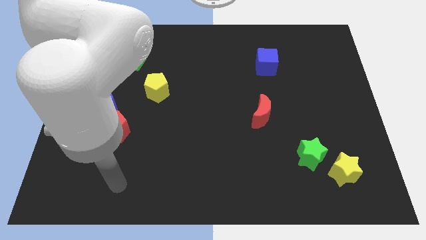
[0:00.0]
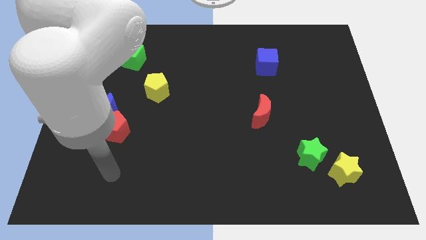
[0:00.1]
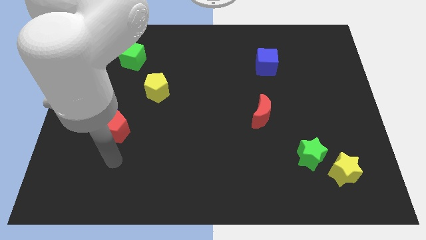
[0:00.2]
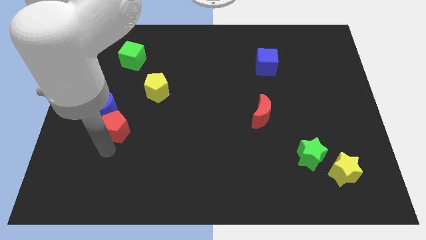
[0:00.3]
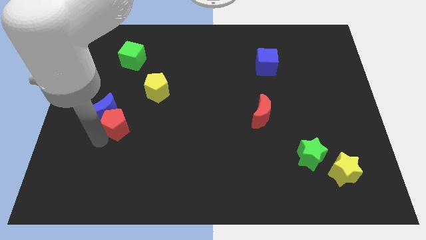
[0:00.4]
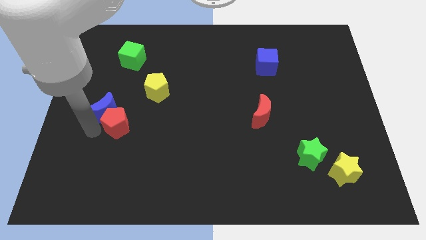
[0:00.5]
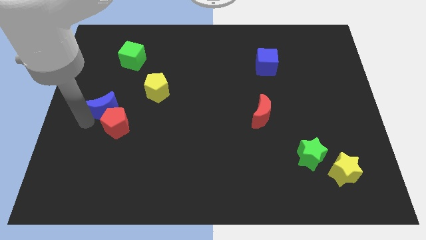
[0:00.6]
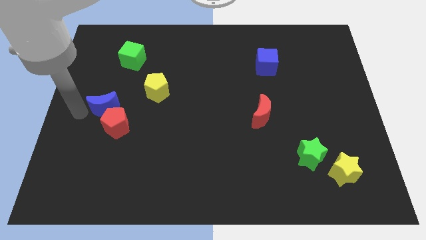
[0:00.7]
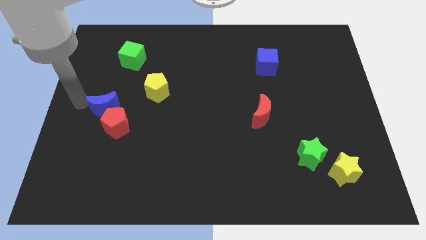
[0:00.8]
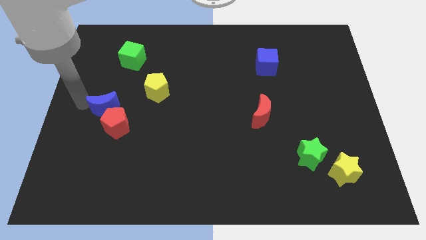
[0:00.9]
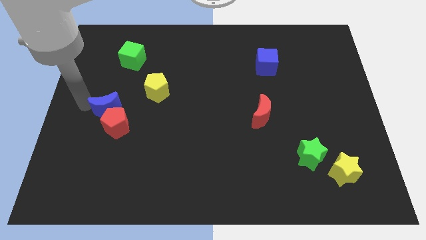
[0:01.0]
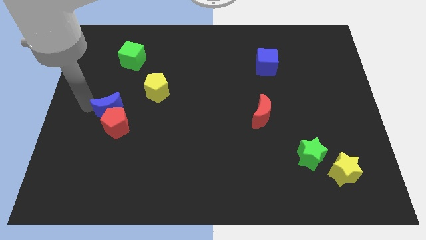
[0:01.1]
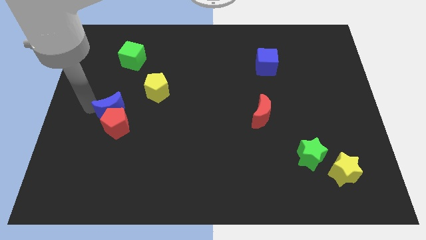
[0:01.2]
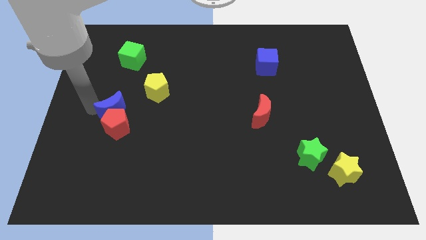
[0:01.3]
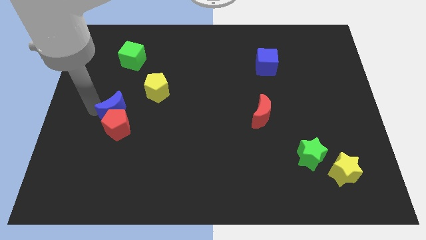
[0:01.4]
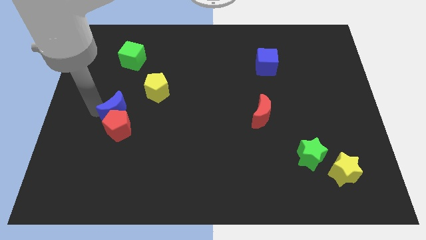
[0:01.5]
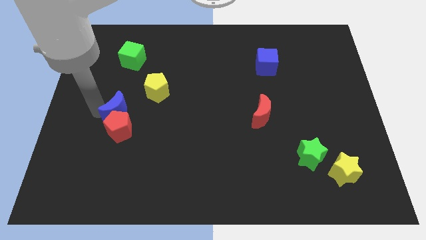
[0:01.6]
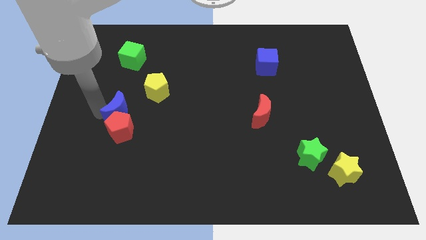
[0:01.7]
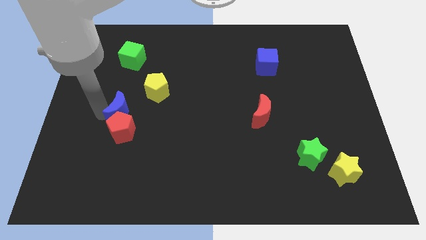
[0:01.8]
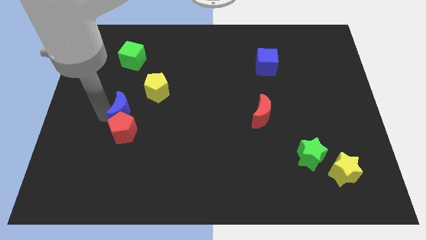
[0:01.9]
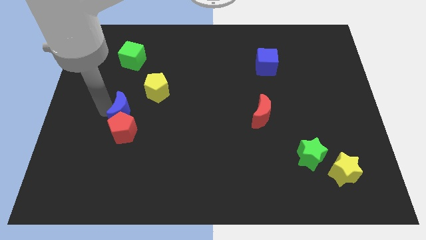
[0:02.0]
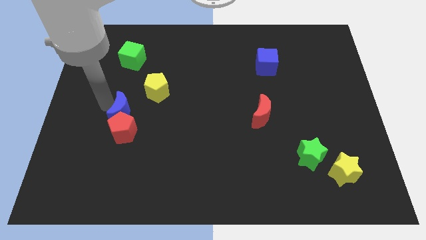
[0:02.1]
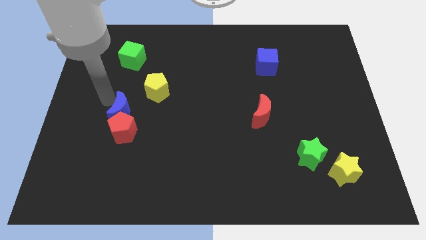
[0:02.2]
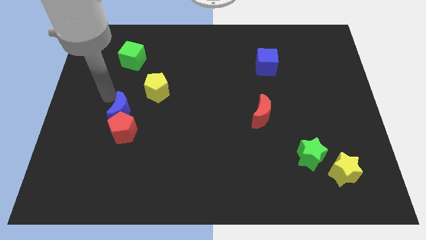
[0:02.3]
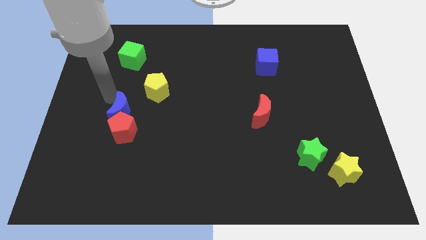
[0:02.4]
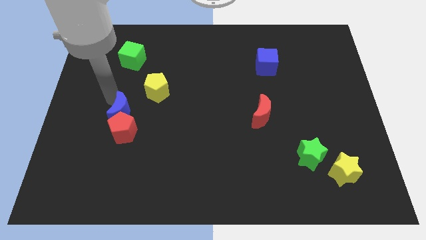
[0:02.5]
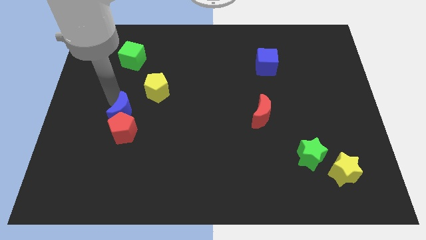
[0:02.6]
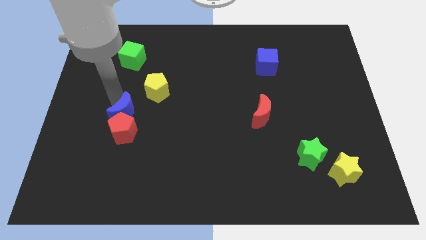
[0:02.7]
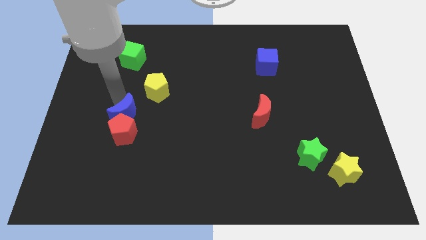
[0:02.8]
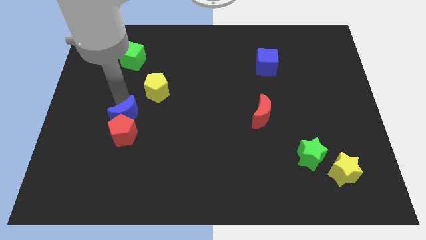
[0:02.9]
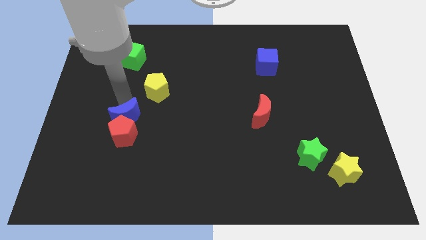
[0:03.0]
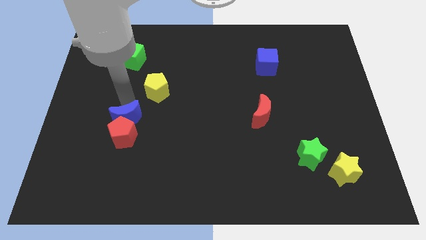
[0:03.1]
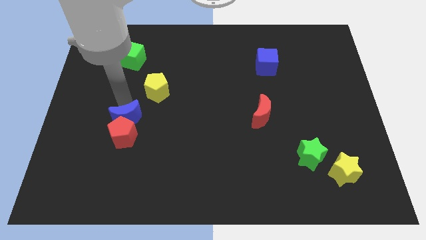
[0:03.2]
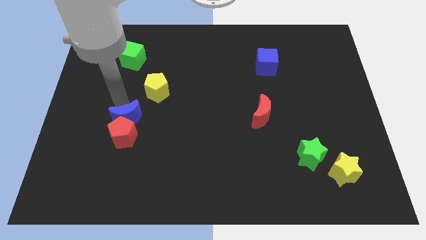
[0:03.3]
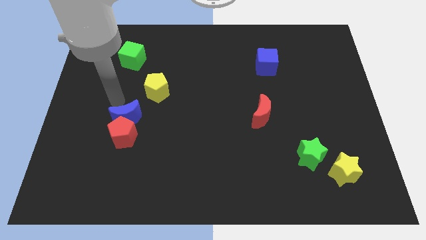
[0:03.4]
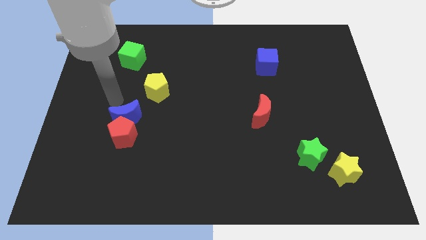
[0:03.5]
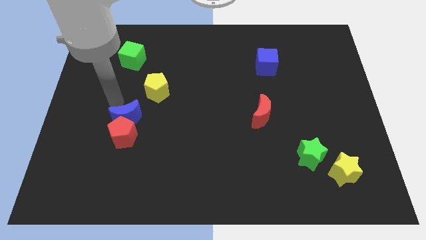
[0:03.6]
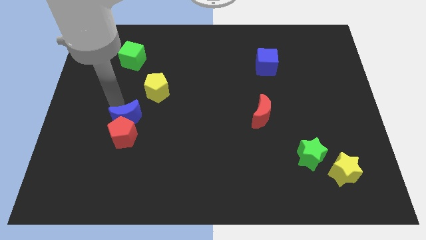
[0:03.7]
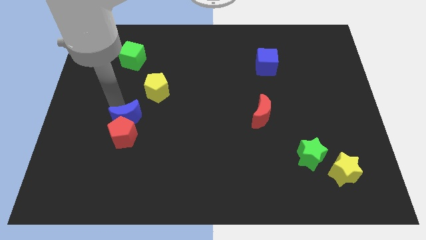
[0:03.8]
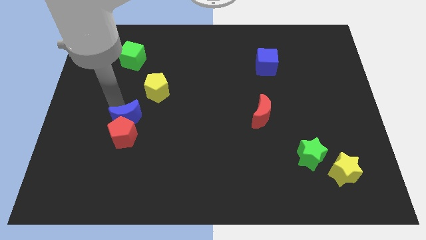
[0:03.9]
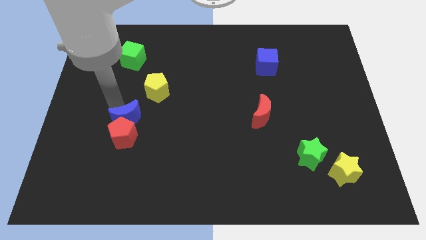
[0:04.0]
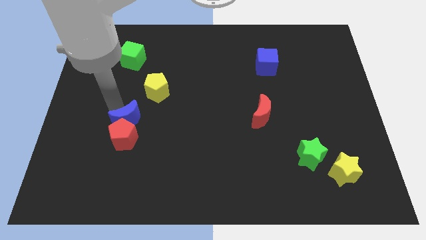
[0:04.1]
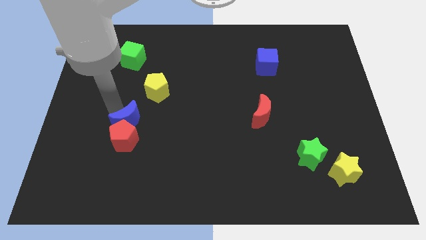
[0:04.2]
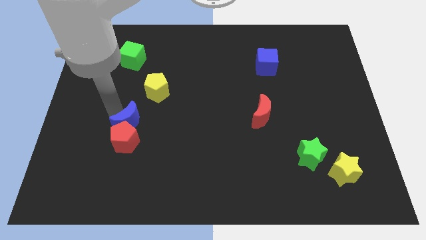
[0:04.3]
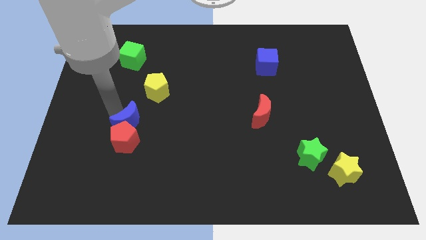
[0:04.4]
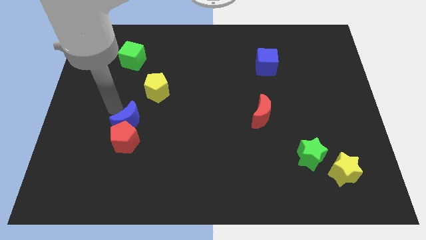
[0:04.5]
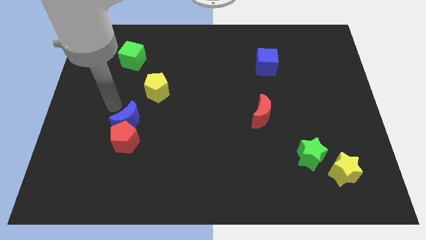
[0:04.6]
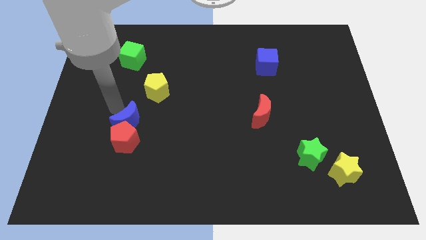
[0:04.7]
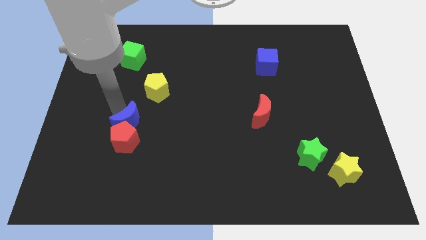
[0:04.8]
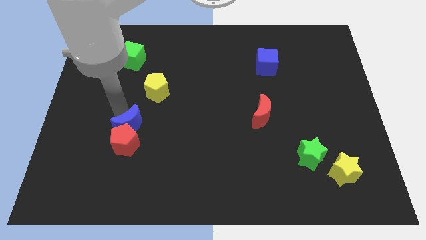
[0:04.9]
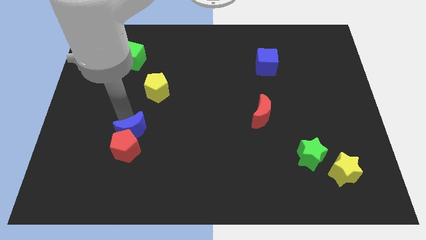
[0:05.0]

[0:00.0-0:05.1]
slide the blue moon downwards and to the right slightly

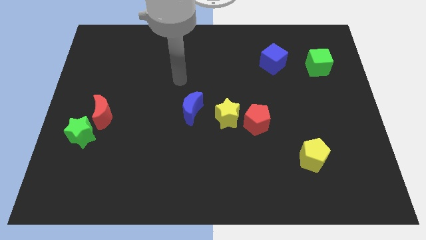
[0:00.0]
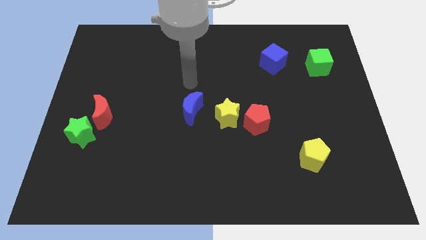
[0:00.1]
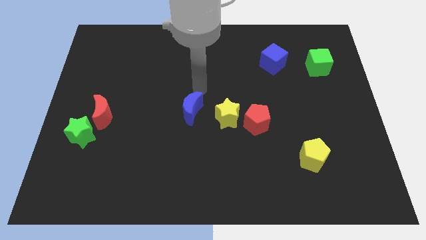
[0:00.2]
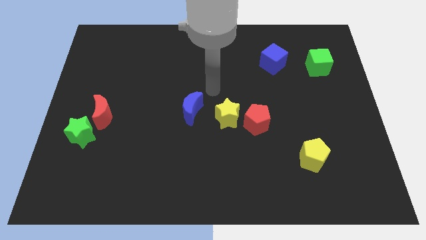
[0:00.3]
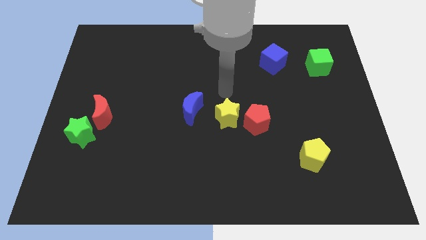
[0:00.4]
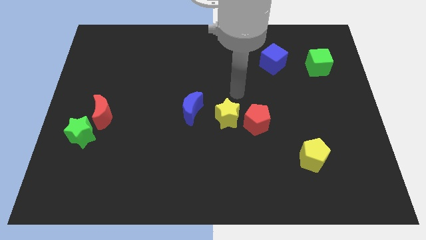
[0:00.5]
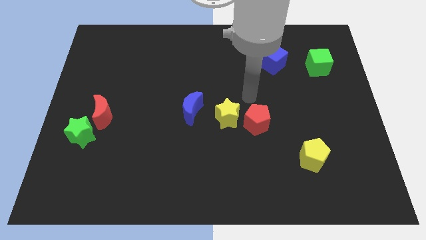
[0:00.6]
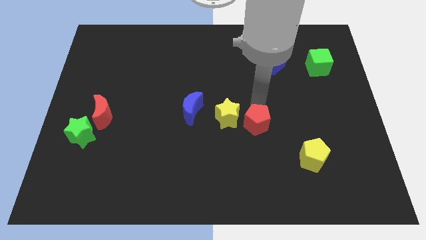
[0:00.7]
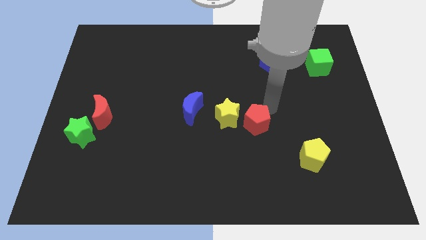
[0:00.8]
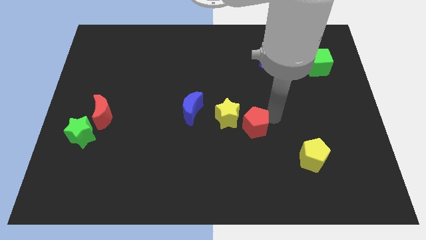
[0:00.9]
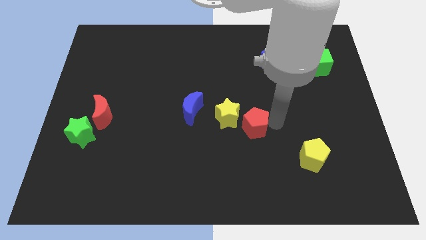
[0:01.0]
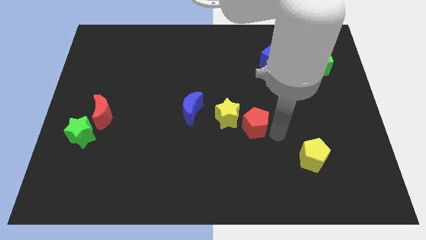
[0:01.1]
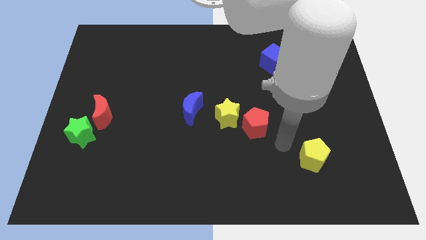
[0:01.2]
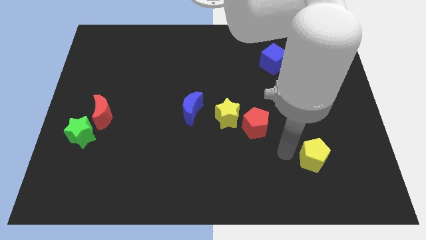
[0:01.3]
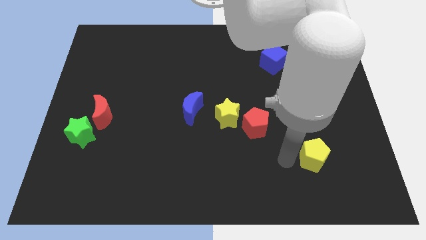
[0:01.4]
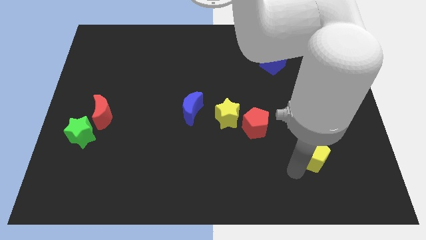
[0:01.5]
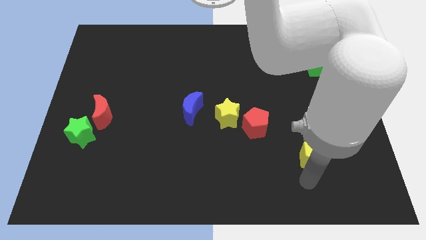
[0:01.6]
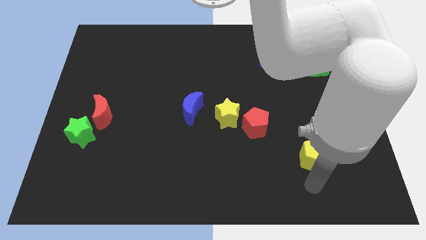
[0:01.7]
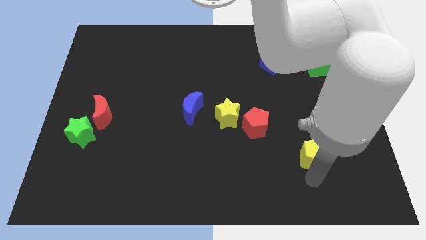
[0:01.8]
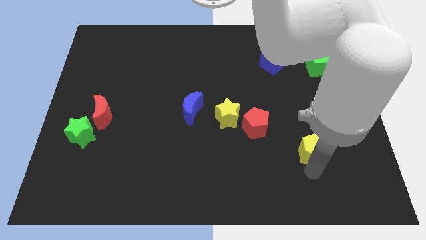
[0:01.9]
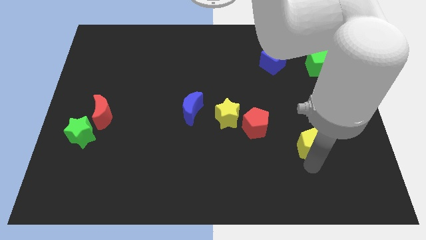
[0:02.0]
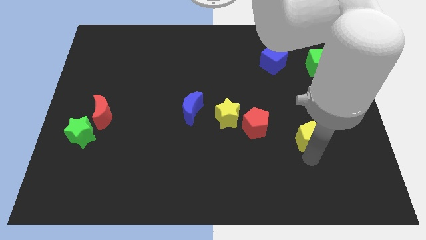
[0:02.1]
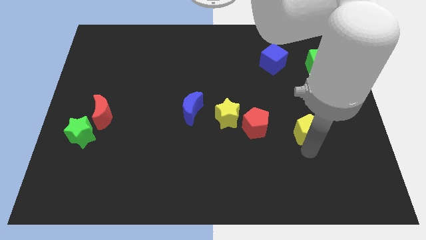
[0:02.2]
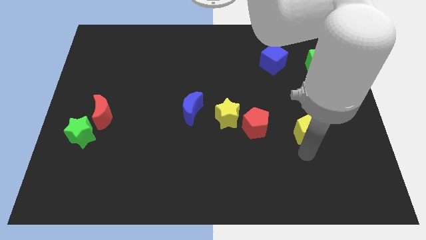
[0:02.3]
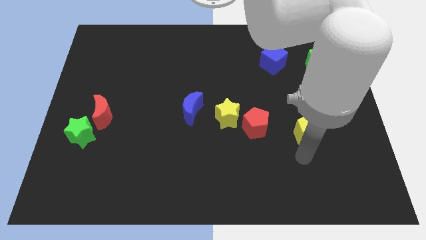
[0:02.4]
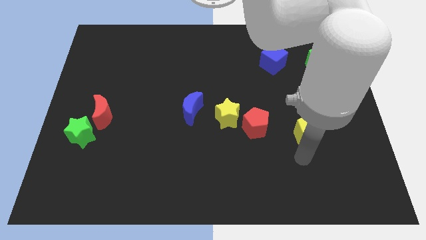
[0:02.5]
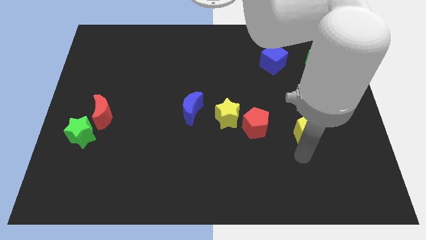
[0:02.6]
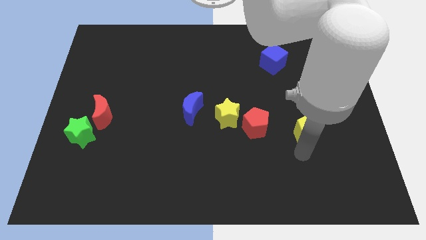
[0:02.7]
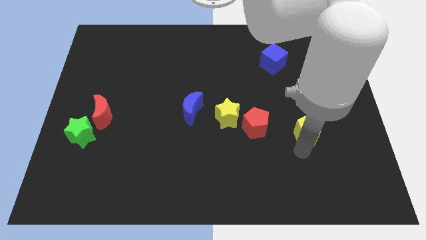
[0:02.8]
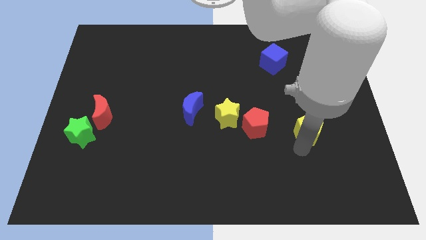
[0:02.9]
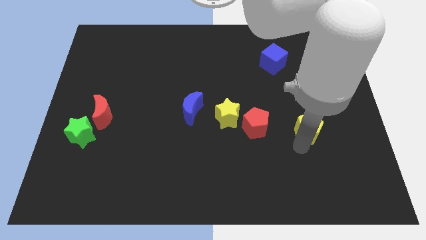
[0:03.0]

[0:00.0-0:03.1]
push the yellow pentagon a little up
